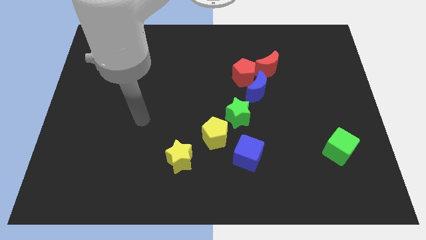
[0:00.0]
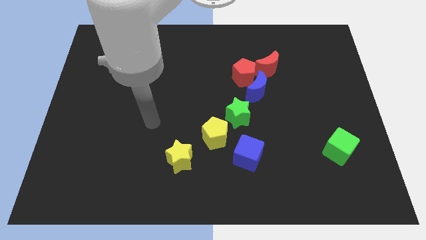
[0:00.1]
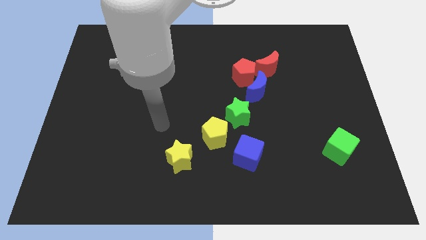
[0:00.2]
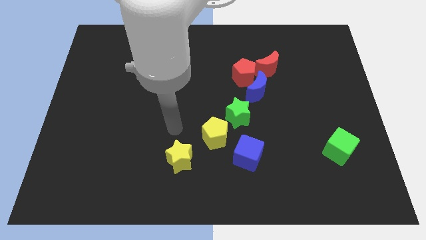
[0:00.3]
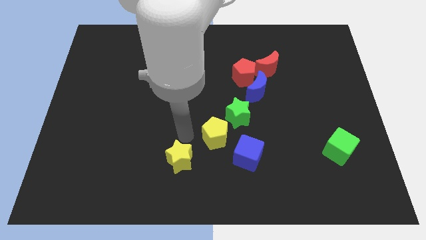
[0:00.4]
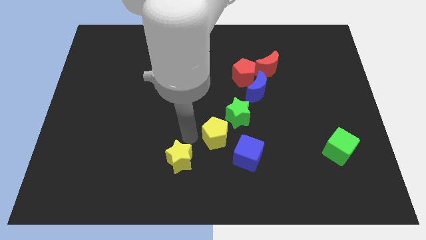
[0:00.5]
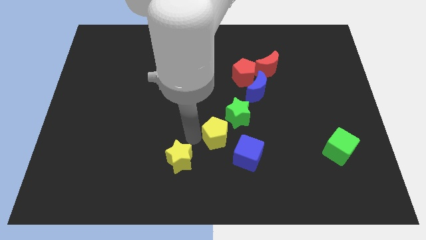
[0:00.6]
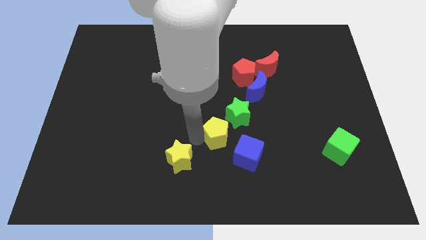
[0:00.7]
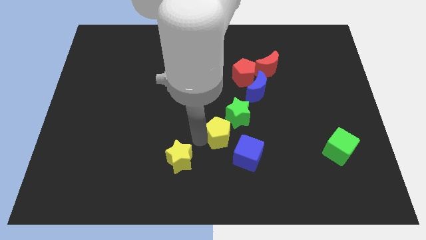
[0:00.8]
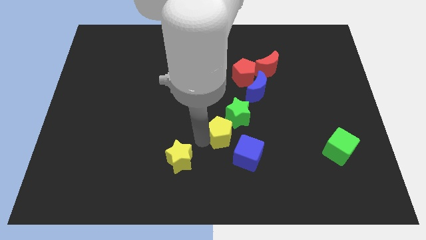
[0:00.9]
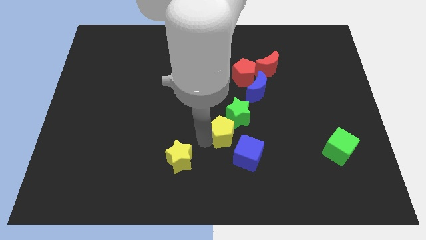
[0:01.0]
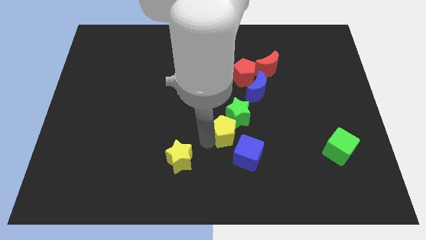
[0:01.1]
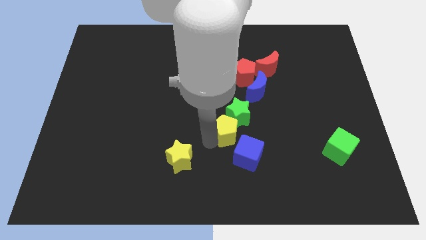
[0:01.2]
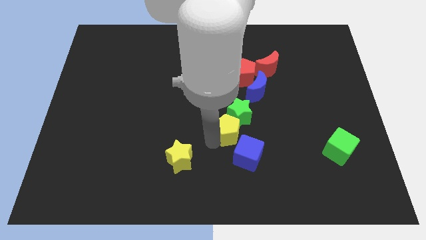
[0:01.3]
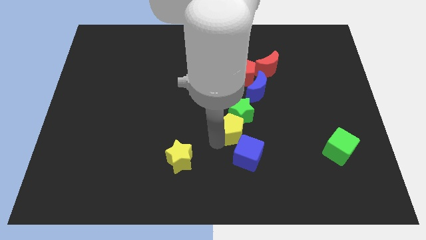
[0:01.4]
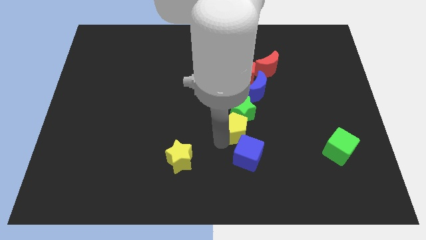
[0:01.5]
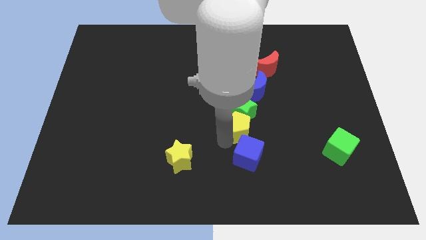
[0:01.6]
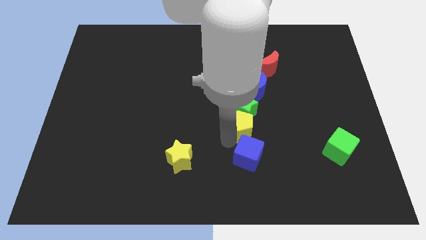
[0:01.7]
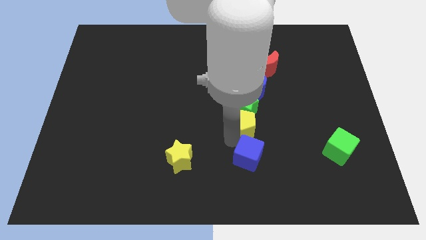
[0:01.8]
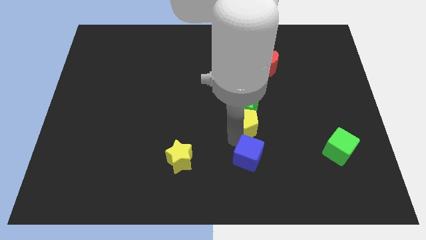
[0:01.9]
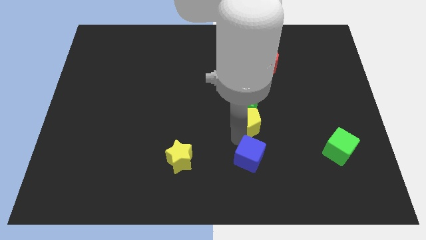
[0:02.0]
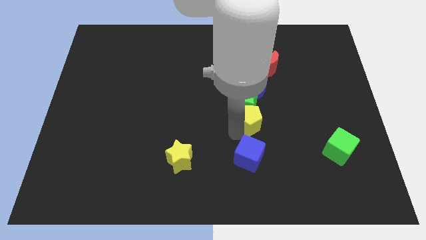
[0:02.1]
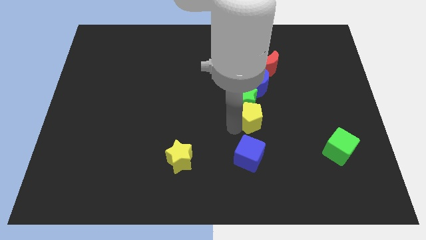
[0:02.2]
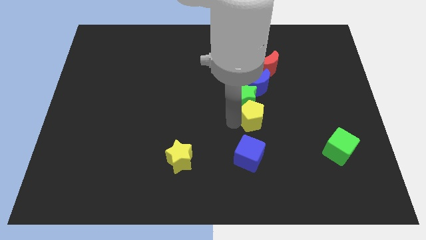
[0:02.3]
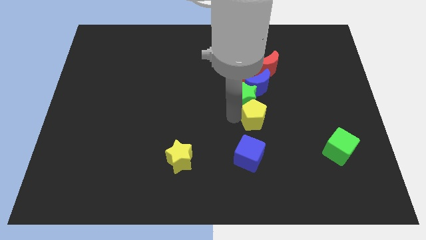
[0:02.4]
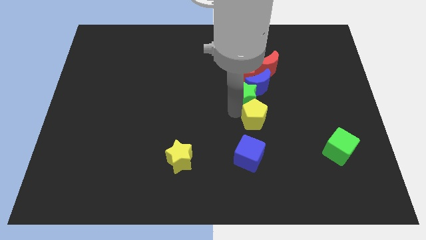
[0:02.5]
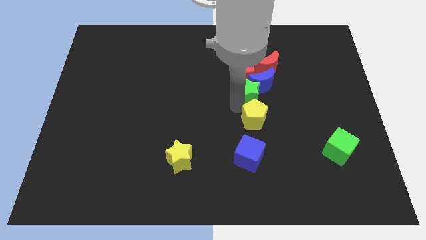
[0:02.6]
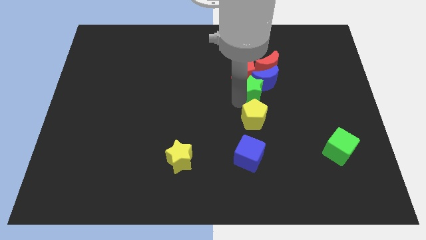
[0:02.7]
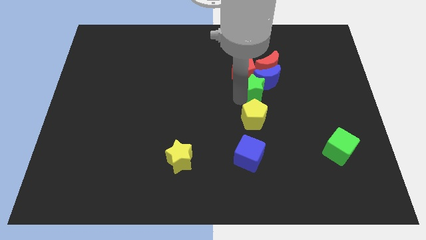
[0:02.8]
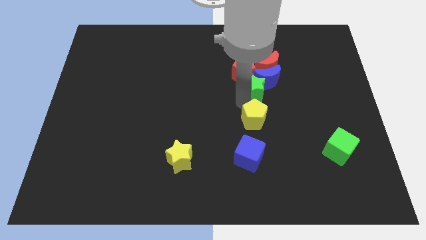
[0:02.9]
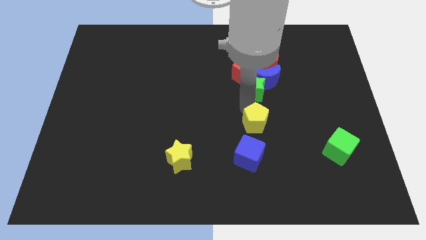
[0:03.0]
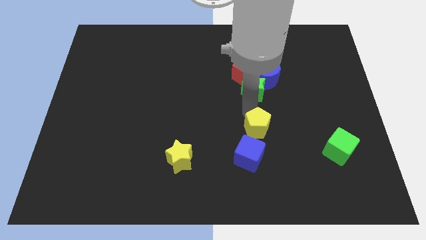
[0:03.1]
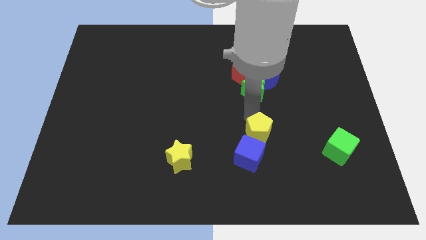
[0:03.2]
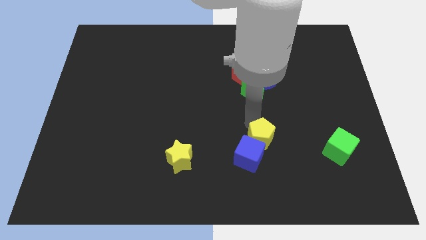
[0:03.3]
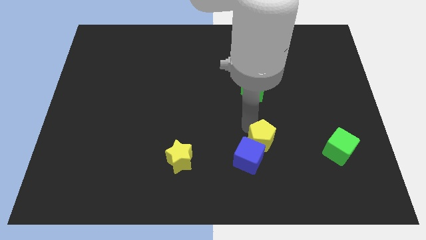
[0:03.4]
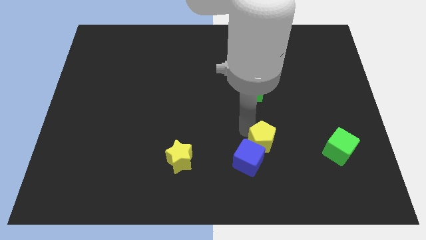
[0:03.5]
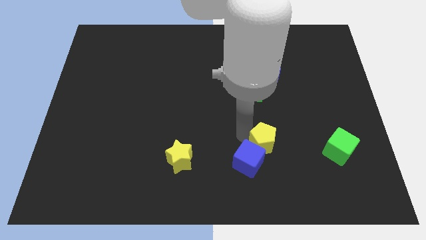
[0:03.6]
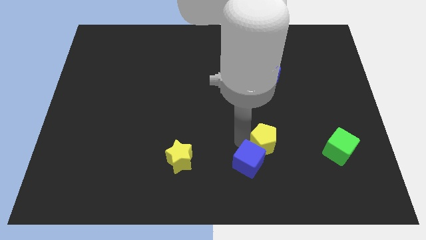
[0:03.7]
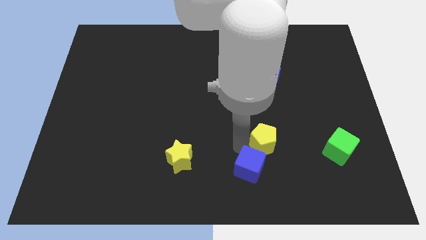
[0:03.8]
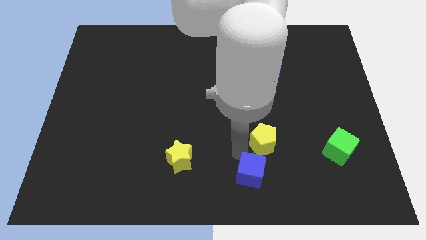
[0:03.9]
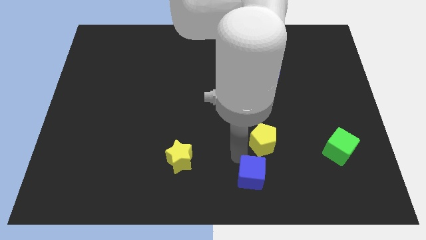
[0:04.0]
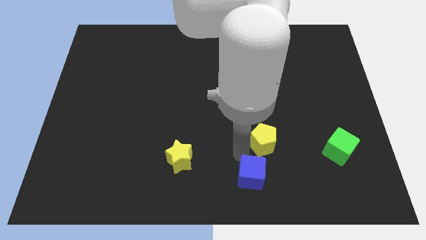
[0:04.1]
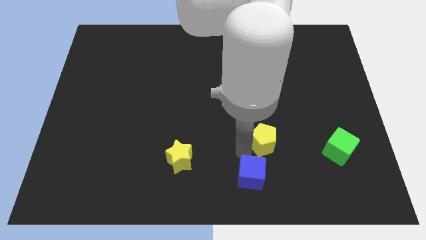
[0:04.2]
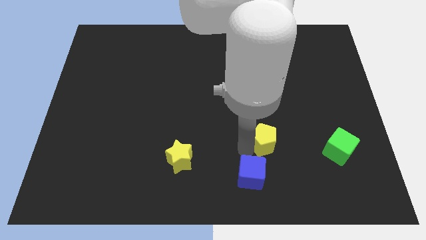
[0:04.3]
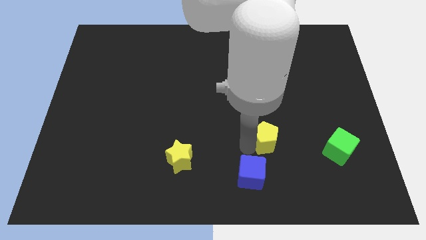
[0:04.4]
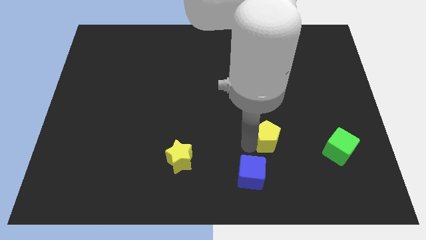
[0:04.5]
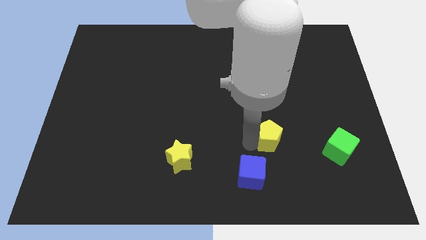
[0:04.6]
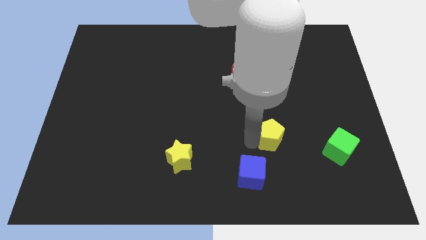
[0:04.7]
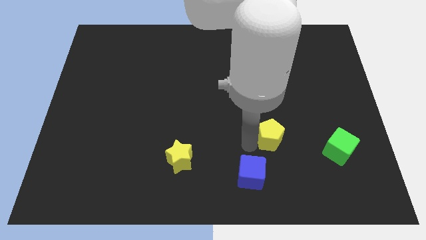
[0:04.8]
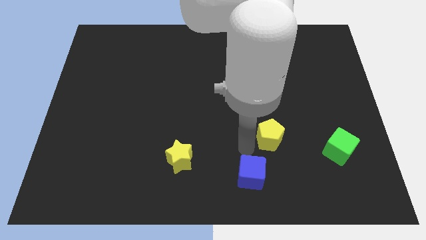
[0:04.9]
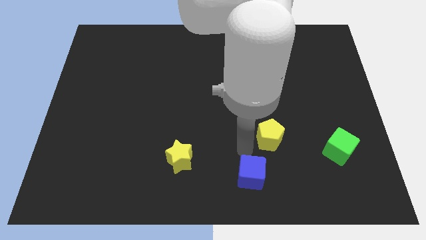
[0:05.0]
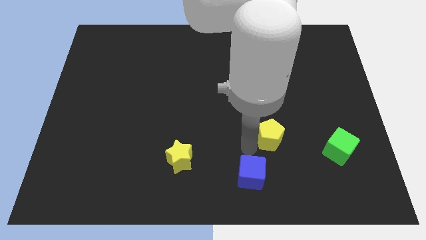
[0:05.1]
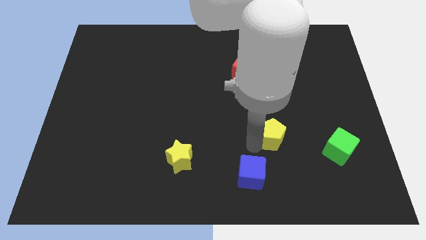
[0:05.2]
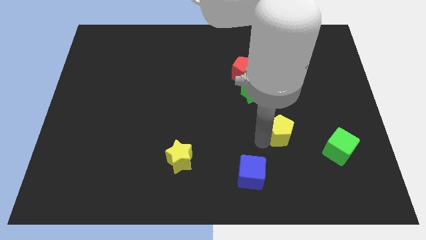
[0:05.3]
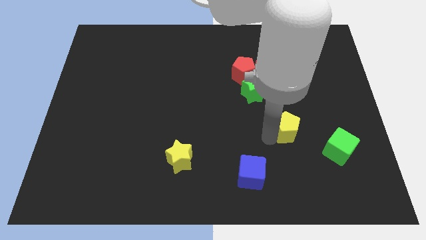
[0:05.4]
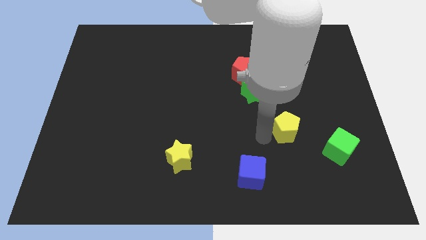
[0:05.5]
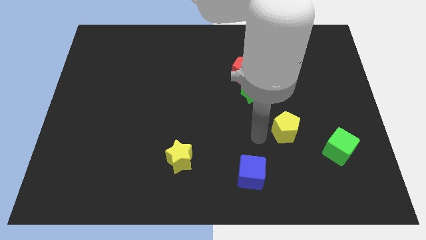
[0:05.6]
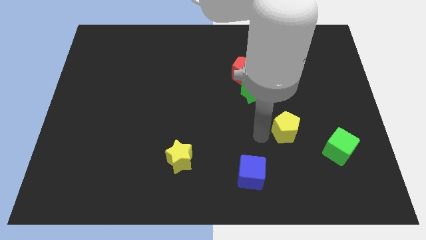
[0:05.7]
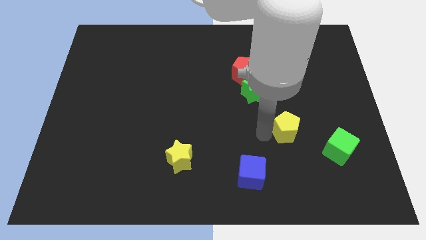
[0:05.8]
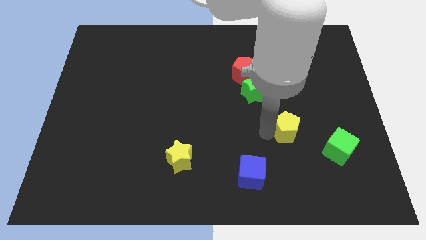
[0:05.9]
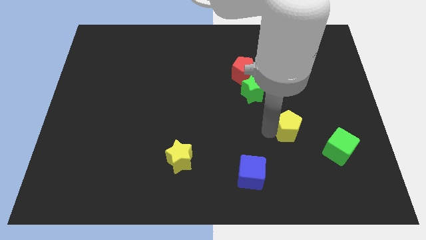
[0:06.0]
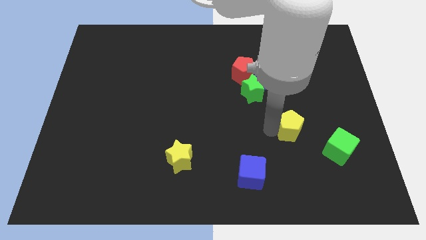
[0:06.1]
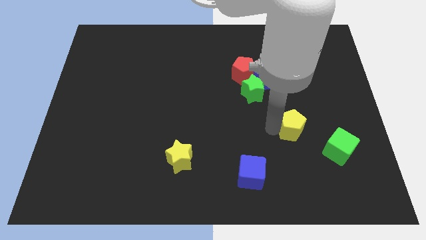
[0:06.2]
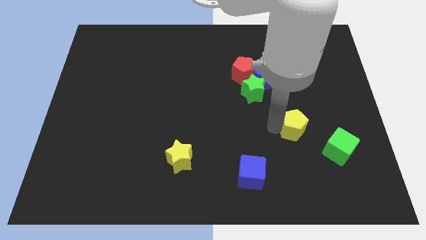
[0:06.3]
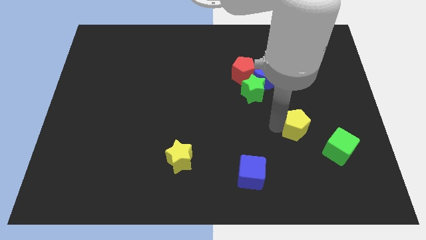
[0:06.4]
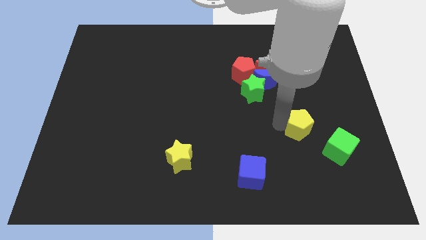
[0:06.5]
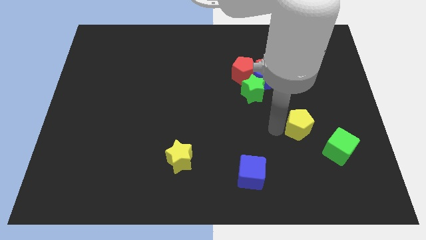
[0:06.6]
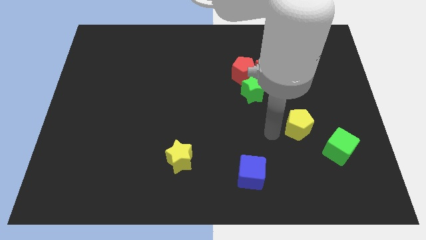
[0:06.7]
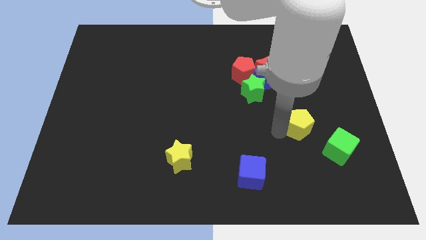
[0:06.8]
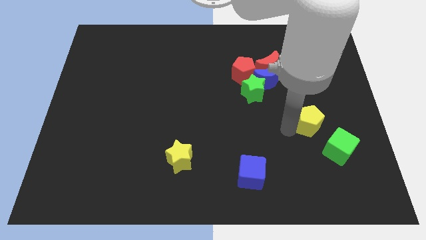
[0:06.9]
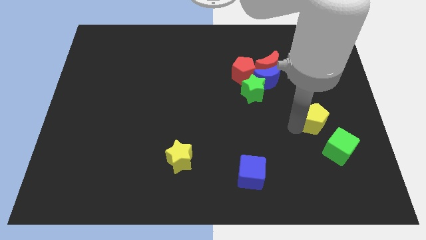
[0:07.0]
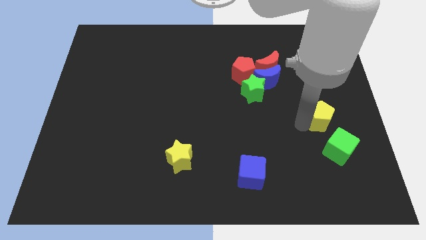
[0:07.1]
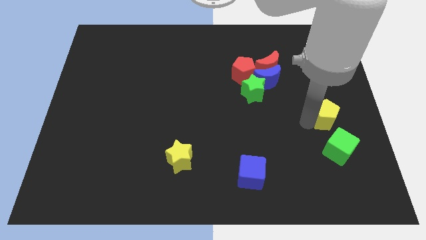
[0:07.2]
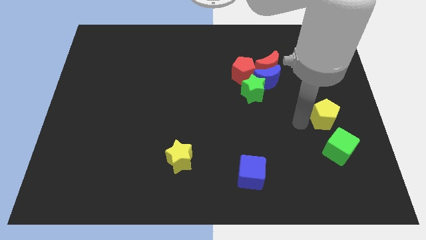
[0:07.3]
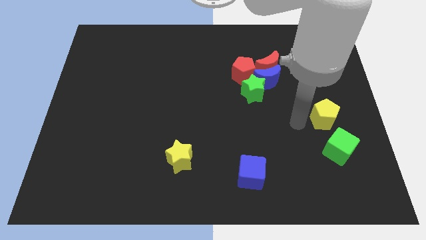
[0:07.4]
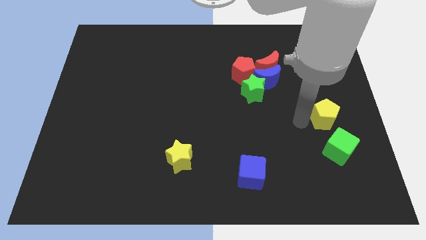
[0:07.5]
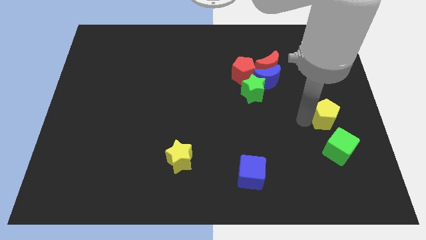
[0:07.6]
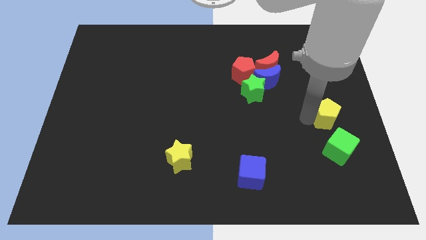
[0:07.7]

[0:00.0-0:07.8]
push the yellow pentagon to the right side
